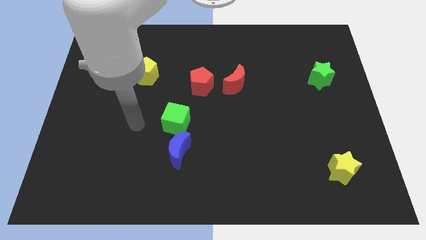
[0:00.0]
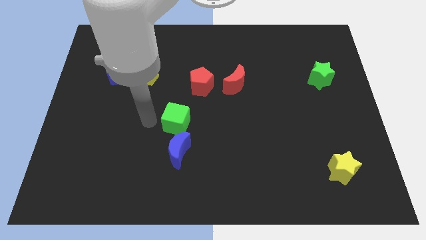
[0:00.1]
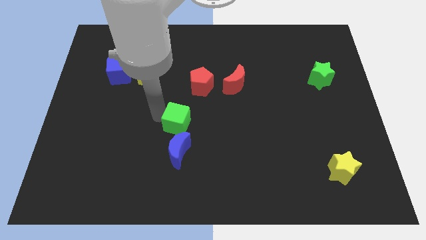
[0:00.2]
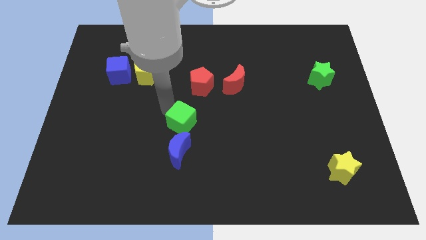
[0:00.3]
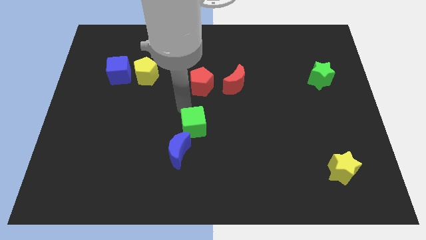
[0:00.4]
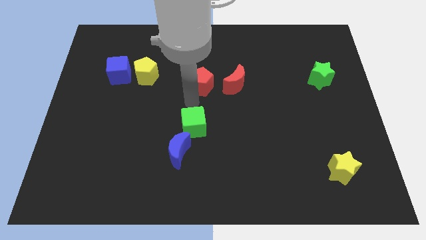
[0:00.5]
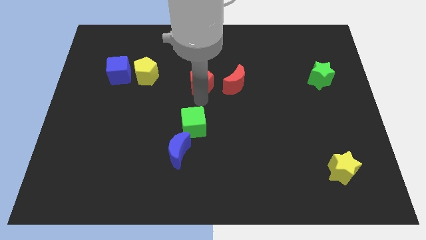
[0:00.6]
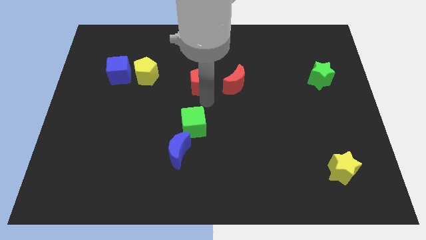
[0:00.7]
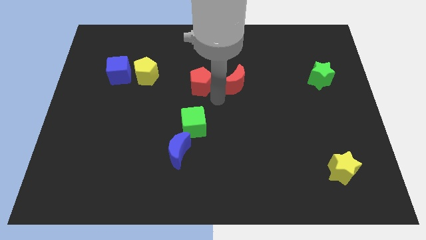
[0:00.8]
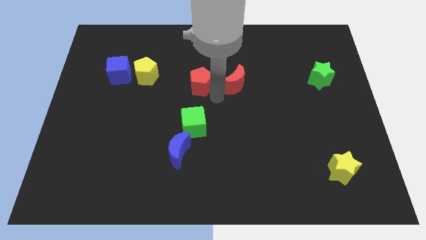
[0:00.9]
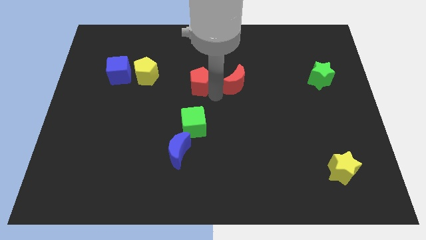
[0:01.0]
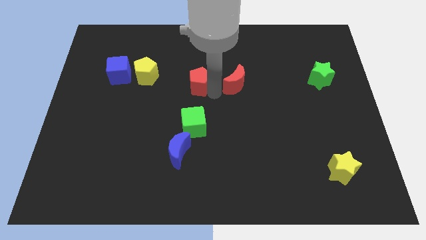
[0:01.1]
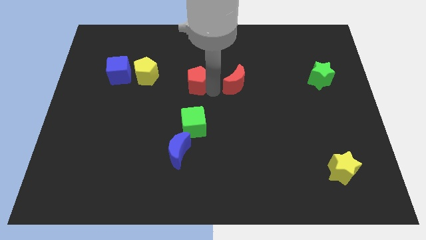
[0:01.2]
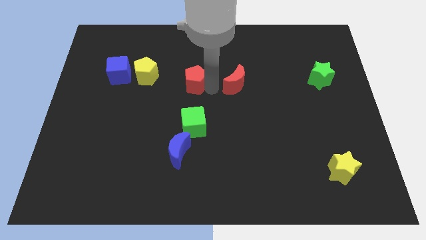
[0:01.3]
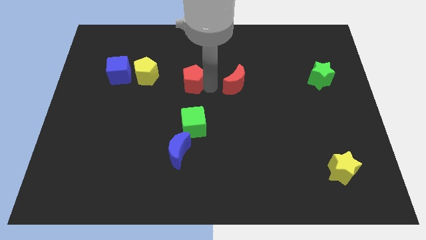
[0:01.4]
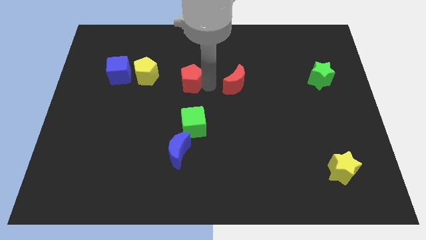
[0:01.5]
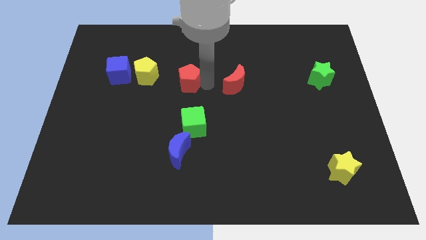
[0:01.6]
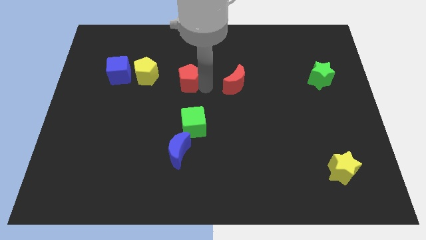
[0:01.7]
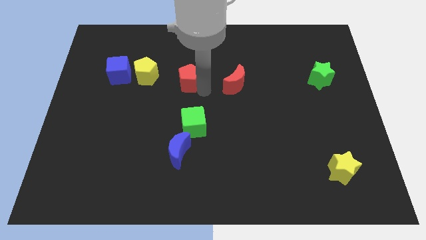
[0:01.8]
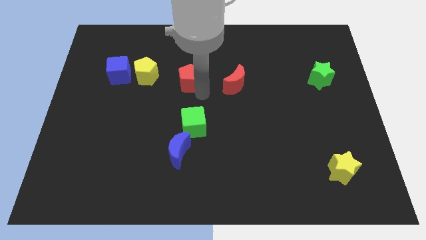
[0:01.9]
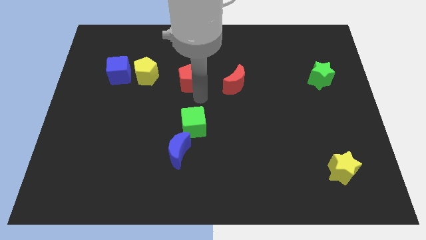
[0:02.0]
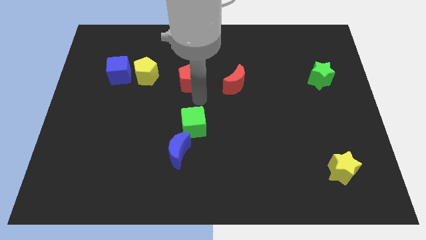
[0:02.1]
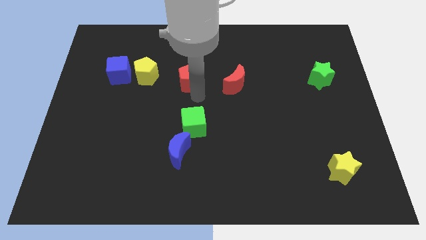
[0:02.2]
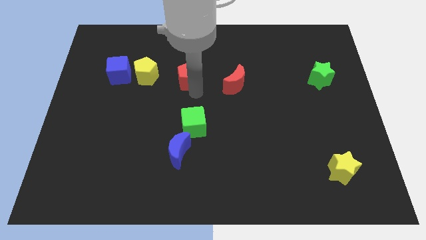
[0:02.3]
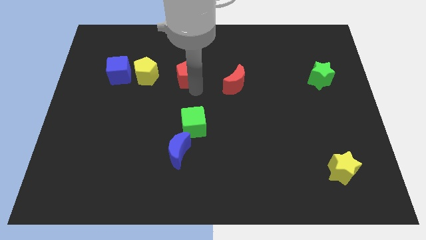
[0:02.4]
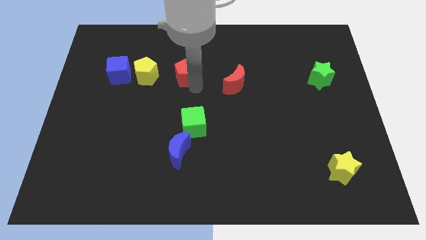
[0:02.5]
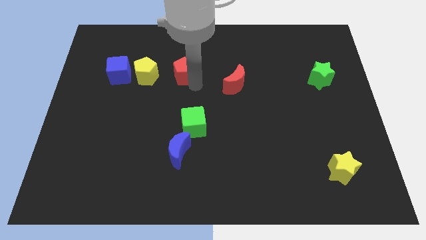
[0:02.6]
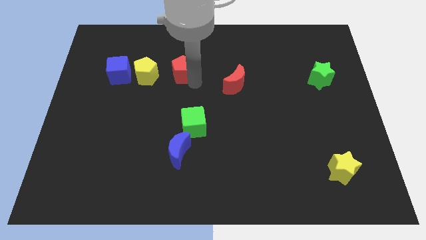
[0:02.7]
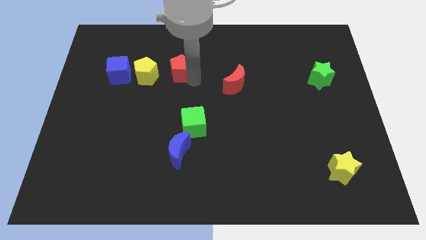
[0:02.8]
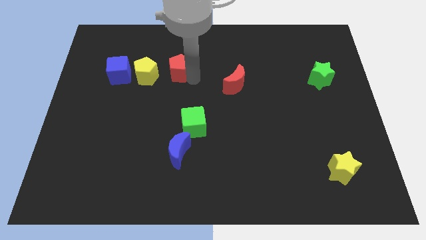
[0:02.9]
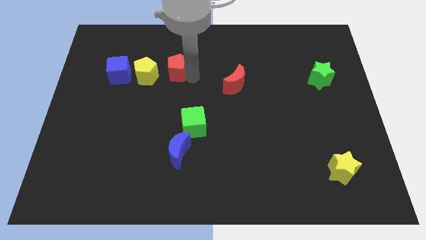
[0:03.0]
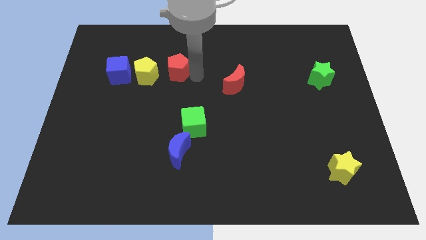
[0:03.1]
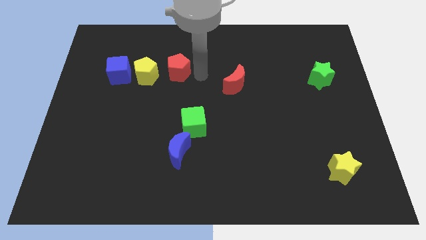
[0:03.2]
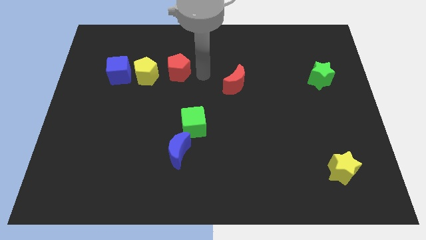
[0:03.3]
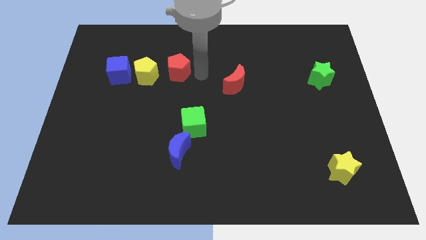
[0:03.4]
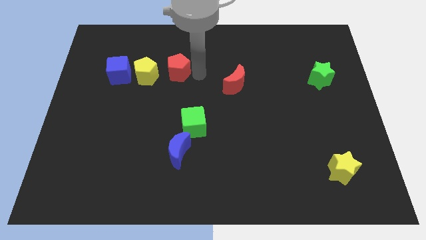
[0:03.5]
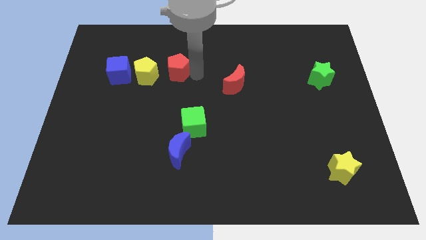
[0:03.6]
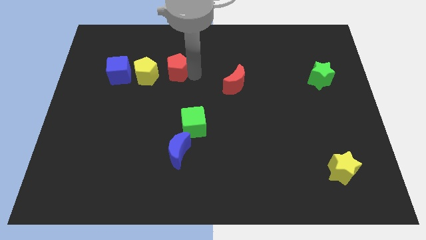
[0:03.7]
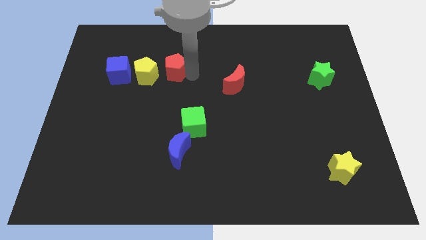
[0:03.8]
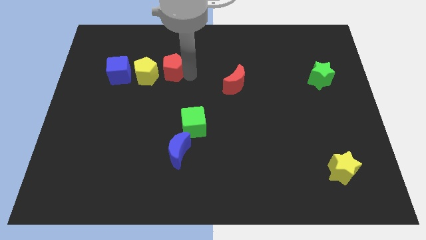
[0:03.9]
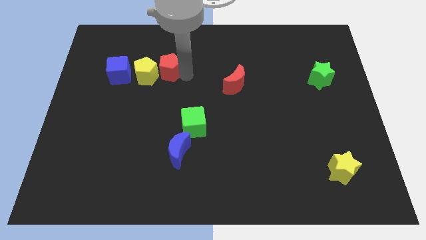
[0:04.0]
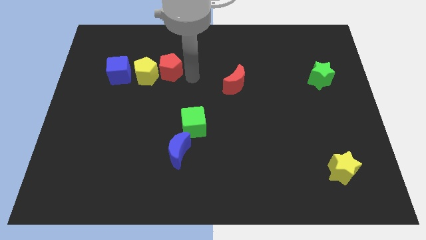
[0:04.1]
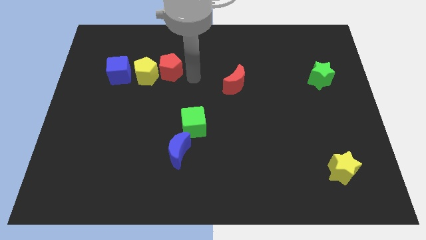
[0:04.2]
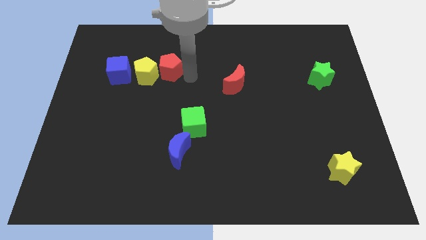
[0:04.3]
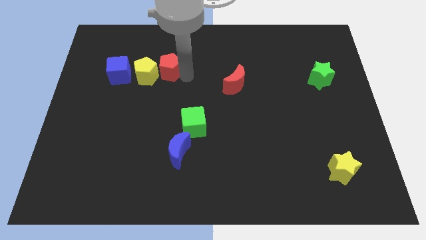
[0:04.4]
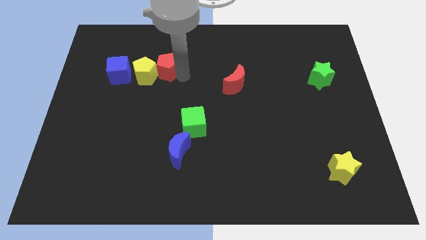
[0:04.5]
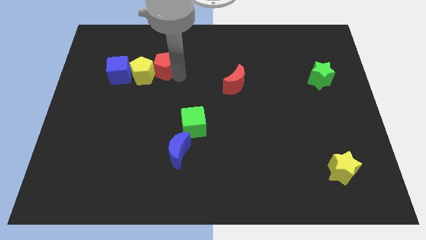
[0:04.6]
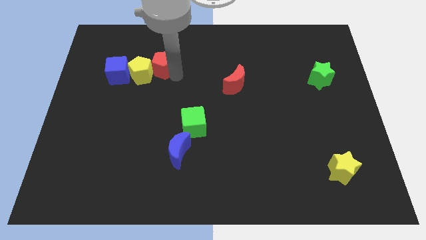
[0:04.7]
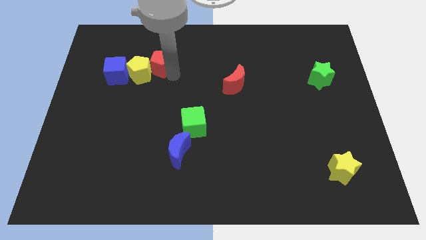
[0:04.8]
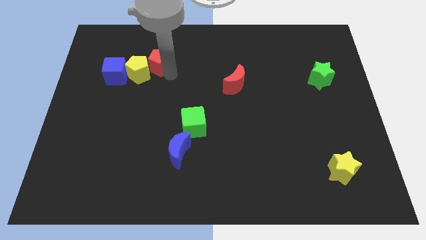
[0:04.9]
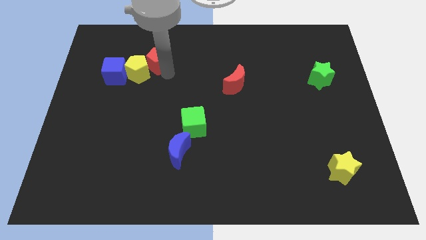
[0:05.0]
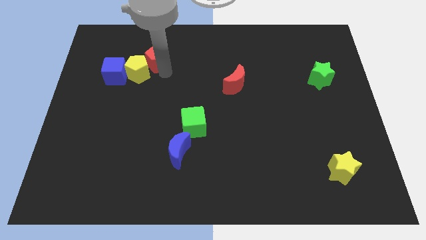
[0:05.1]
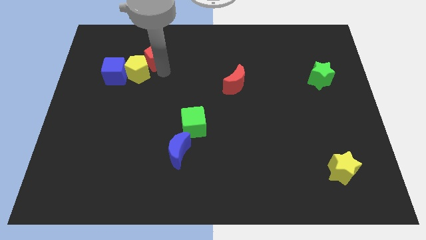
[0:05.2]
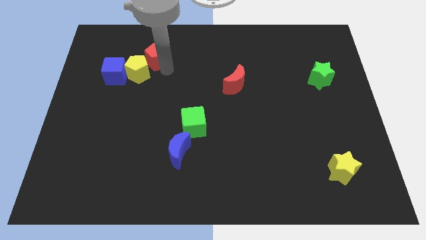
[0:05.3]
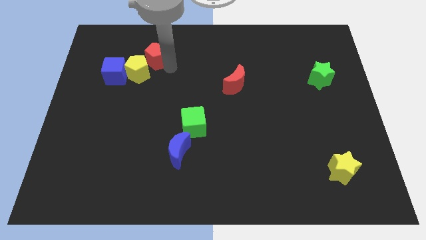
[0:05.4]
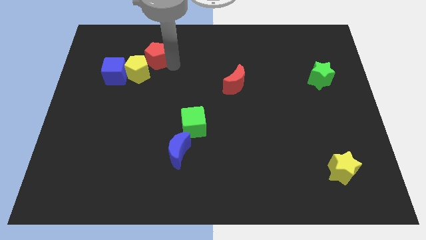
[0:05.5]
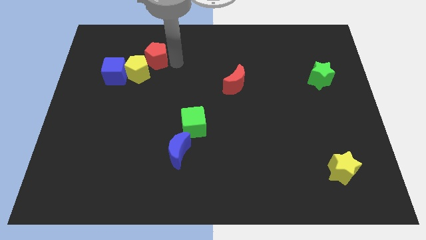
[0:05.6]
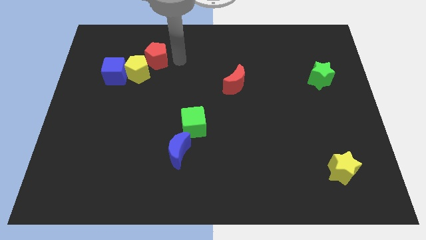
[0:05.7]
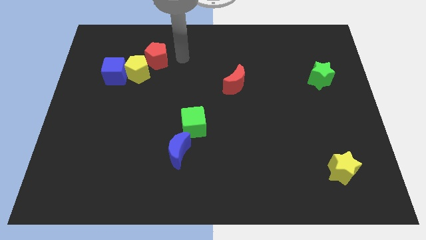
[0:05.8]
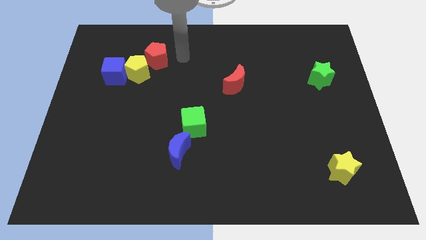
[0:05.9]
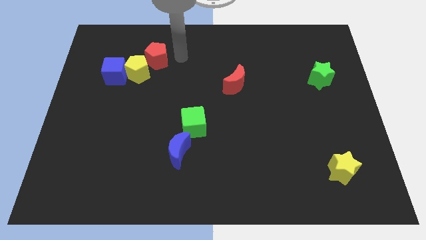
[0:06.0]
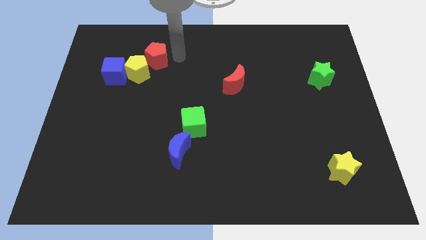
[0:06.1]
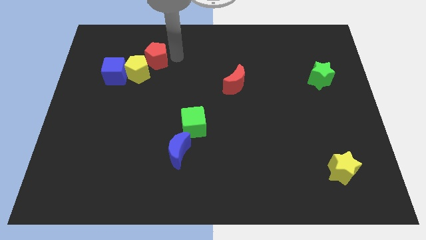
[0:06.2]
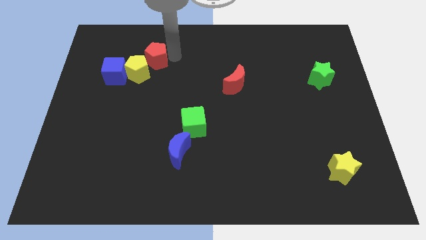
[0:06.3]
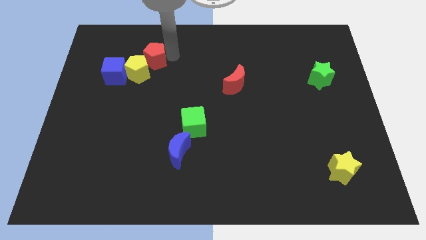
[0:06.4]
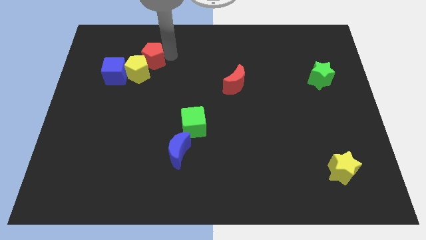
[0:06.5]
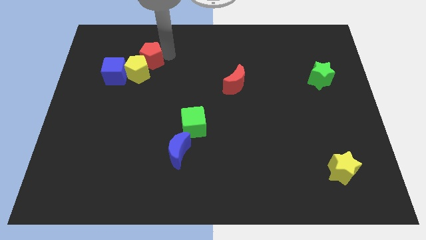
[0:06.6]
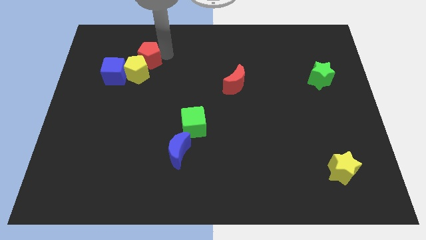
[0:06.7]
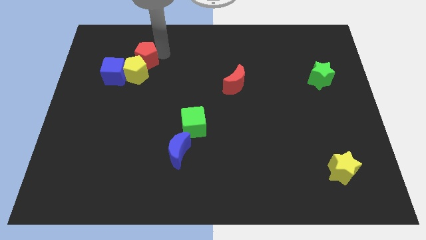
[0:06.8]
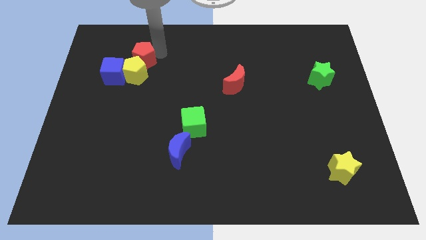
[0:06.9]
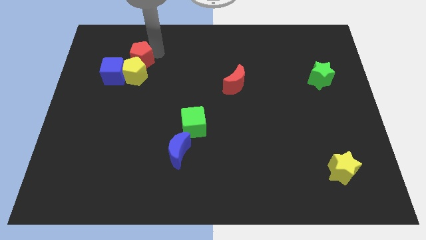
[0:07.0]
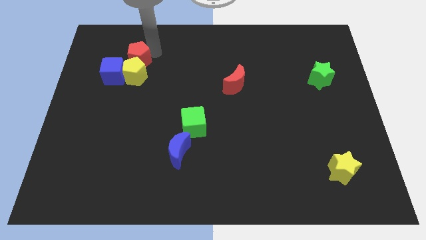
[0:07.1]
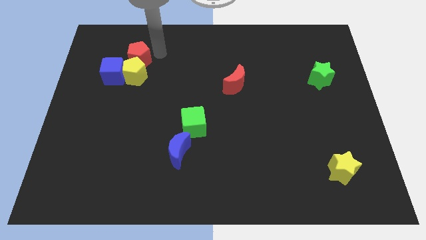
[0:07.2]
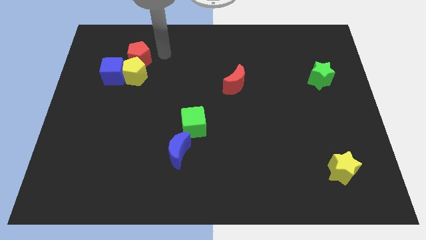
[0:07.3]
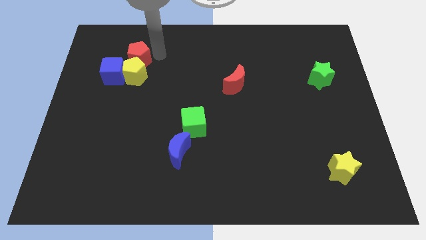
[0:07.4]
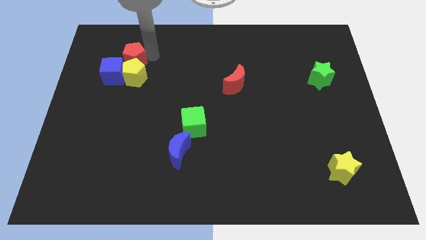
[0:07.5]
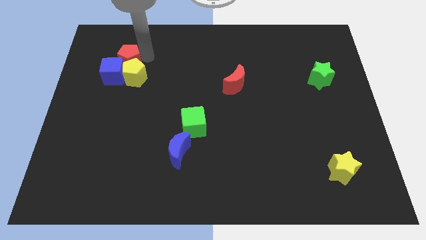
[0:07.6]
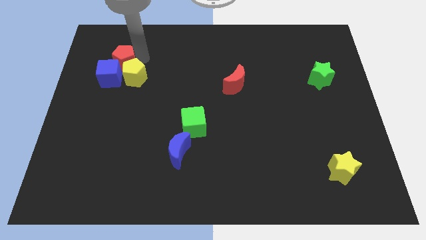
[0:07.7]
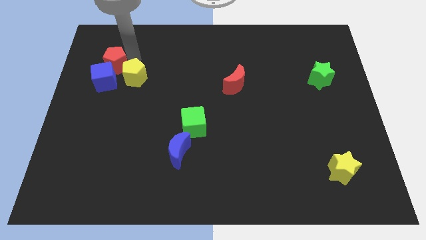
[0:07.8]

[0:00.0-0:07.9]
push the red pentagon just left of the yellow pentagon
